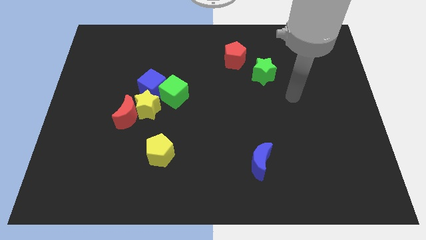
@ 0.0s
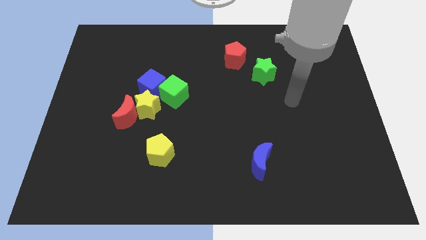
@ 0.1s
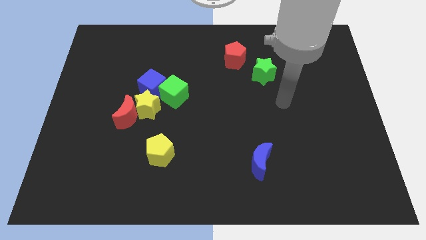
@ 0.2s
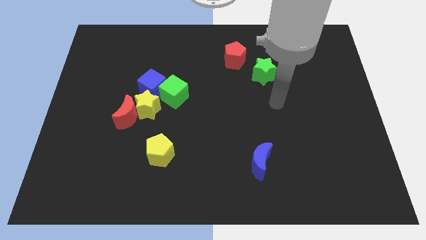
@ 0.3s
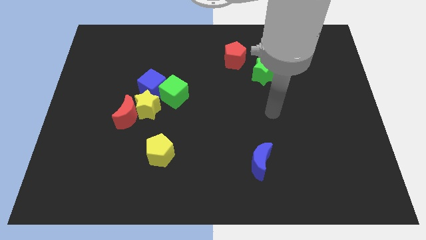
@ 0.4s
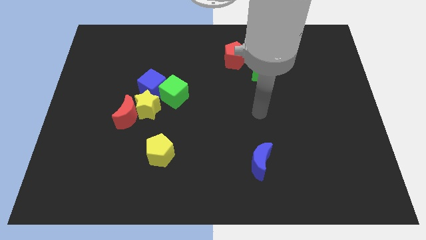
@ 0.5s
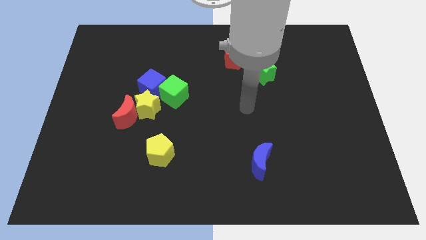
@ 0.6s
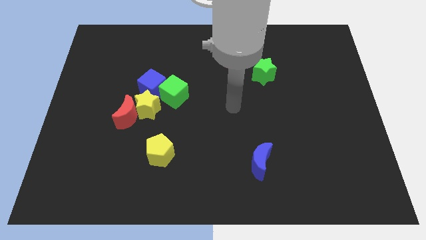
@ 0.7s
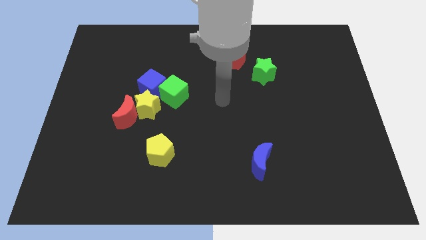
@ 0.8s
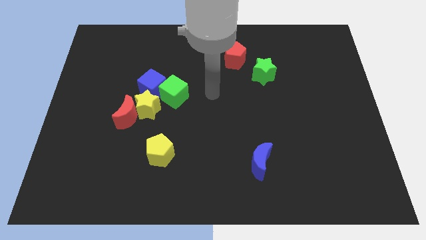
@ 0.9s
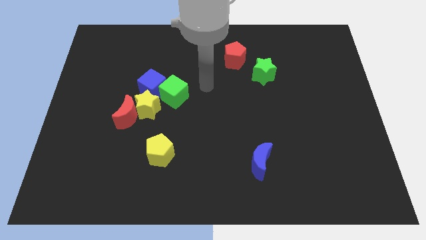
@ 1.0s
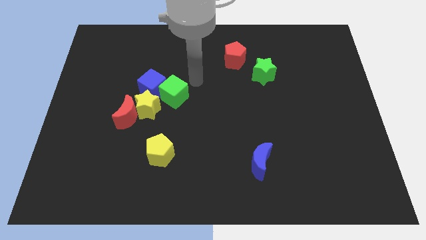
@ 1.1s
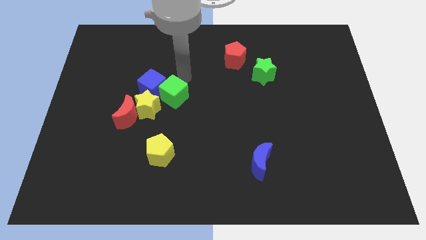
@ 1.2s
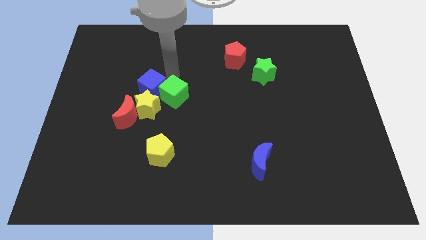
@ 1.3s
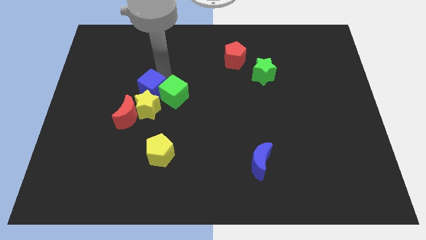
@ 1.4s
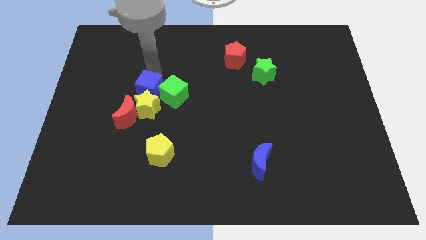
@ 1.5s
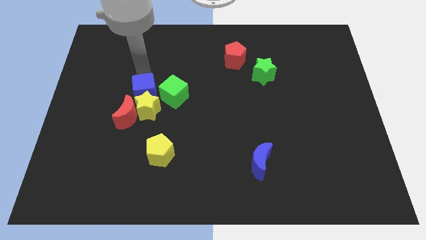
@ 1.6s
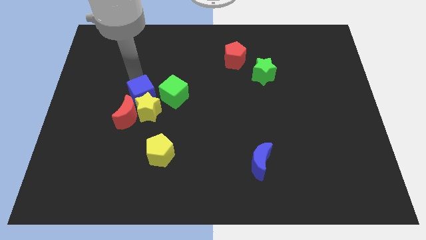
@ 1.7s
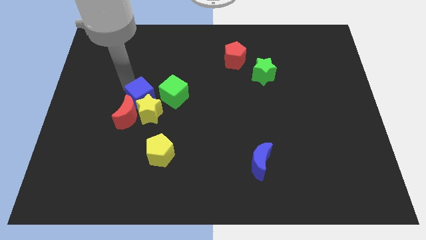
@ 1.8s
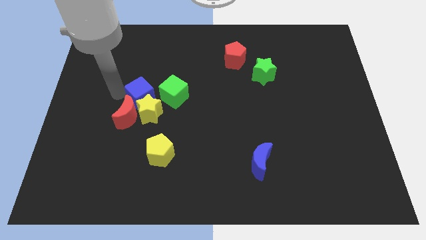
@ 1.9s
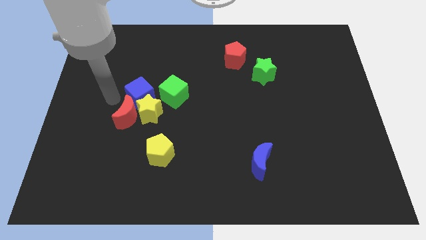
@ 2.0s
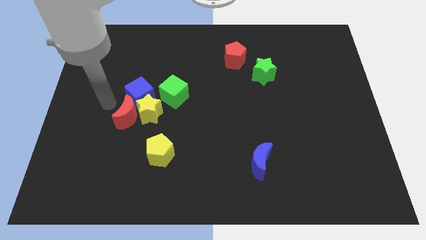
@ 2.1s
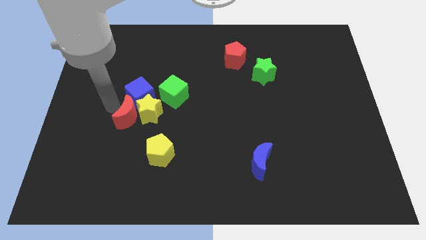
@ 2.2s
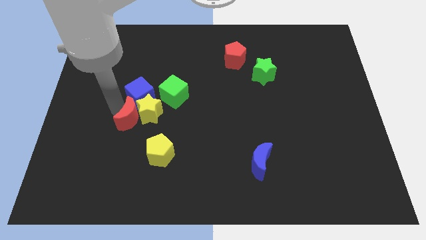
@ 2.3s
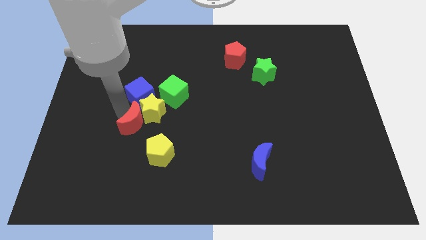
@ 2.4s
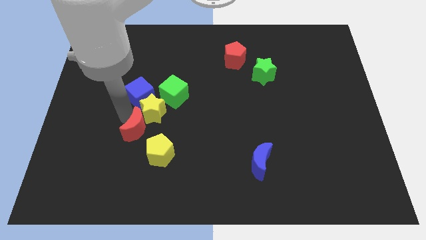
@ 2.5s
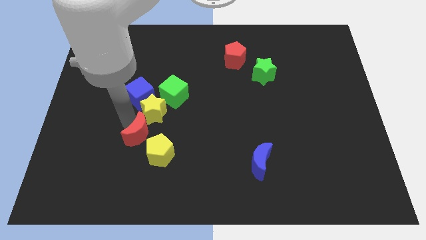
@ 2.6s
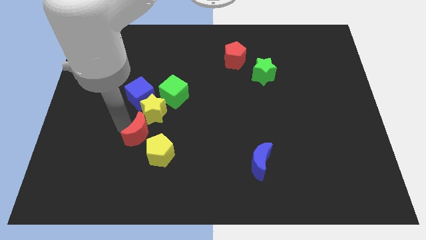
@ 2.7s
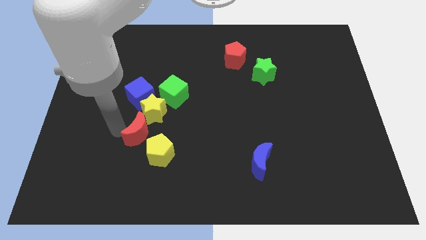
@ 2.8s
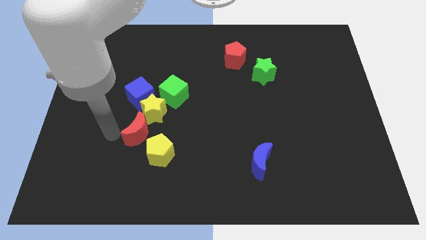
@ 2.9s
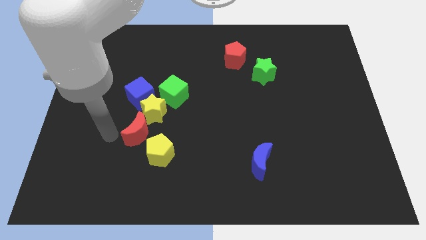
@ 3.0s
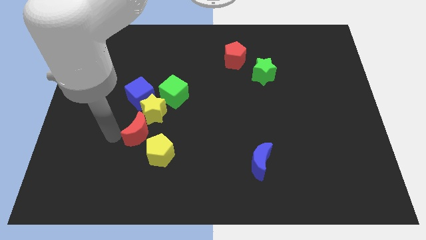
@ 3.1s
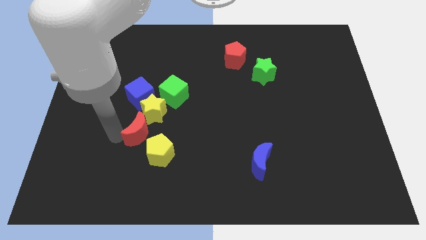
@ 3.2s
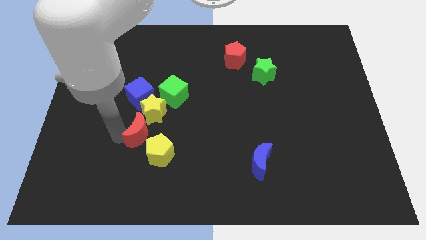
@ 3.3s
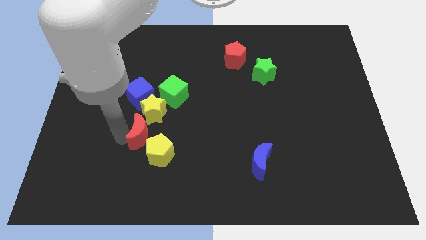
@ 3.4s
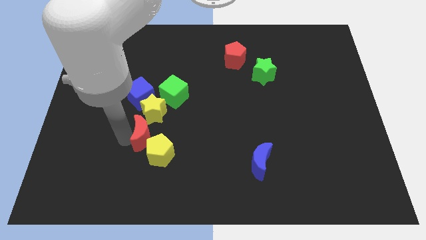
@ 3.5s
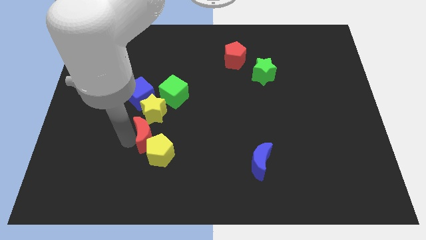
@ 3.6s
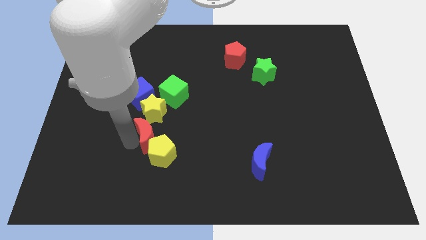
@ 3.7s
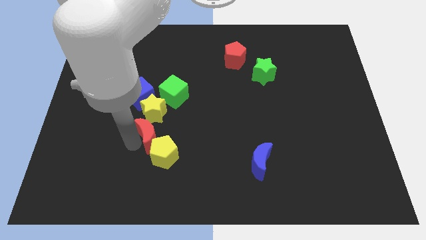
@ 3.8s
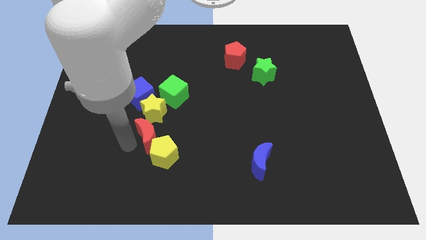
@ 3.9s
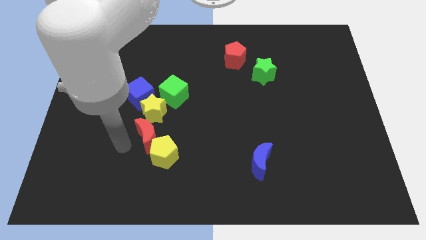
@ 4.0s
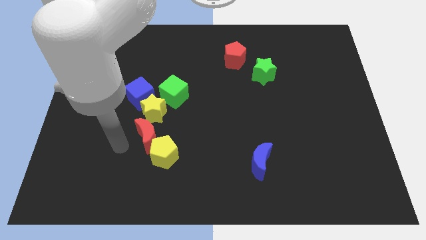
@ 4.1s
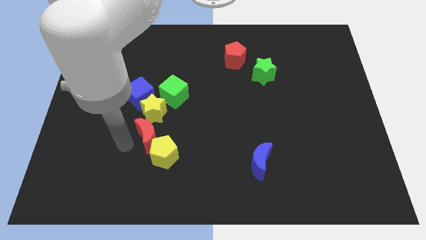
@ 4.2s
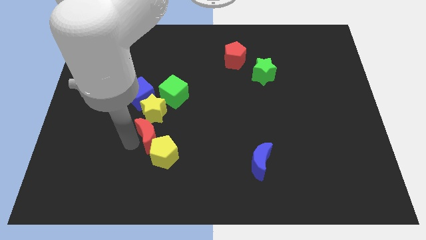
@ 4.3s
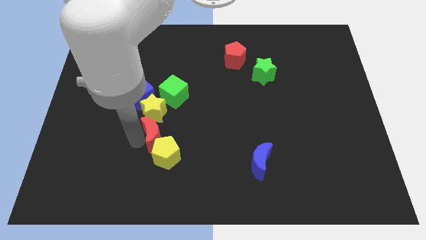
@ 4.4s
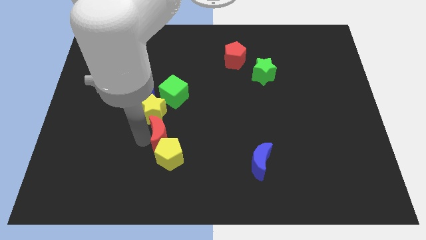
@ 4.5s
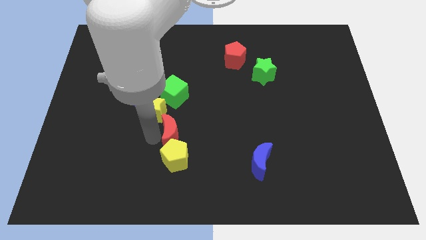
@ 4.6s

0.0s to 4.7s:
move the red moon to the right a bit

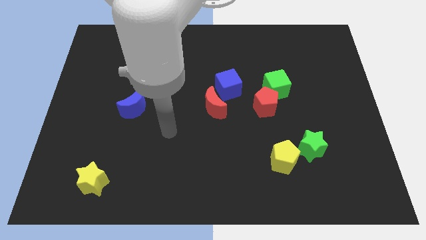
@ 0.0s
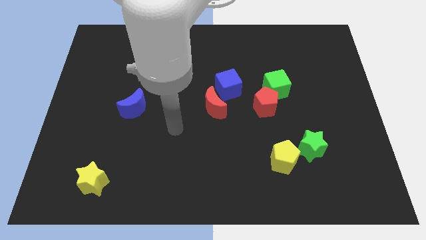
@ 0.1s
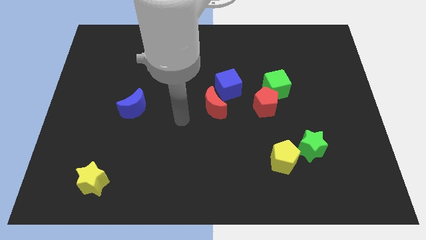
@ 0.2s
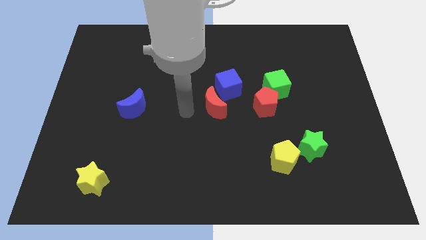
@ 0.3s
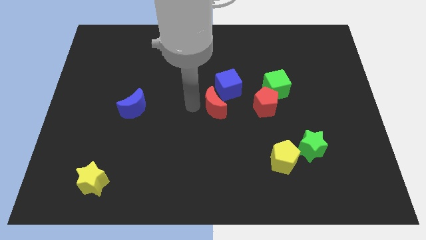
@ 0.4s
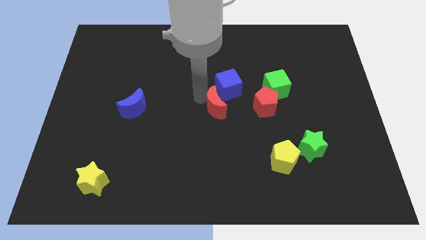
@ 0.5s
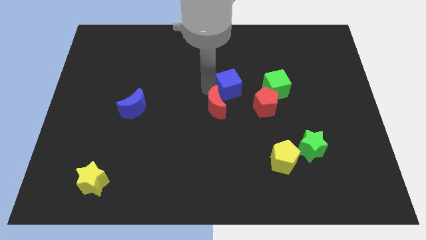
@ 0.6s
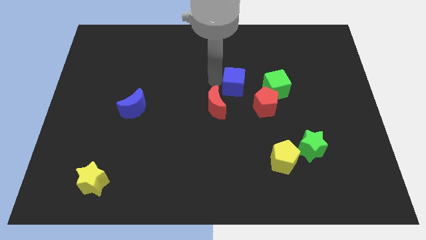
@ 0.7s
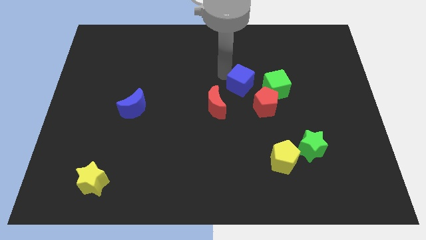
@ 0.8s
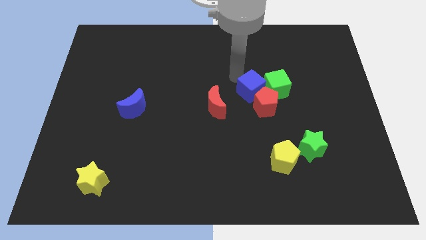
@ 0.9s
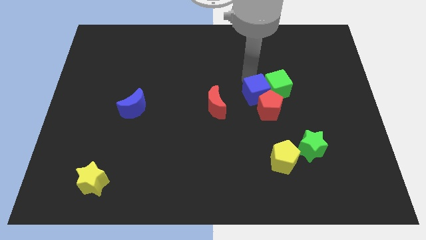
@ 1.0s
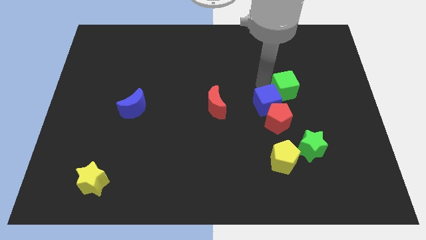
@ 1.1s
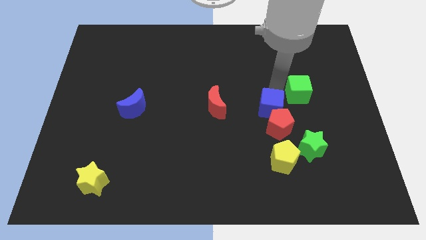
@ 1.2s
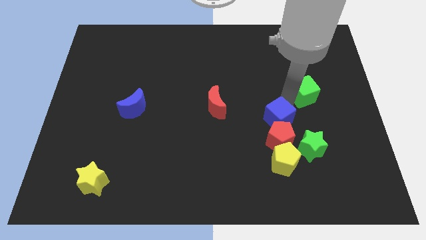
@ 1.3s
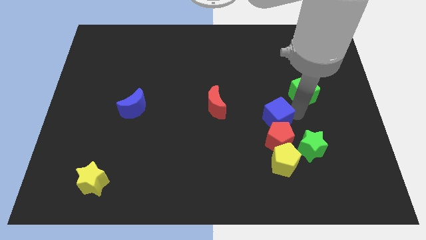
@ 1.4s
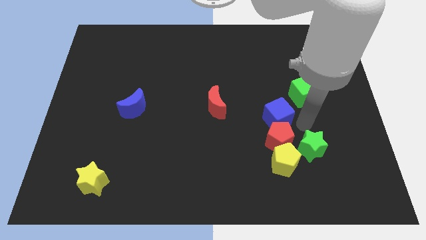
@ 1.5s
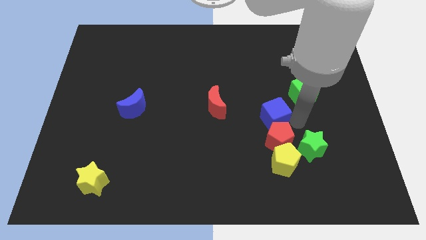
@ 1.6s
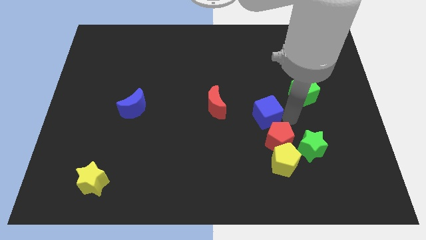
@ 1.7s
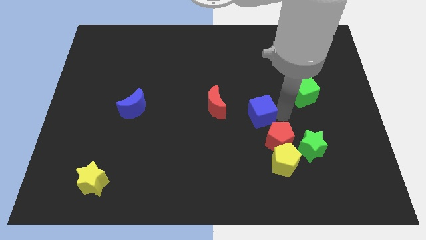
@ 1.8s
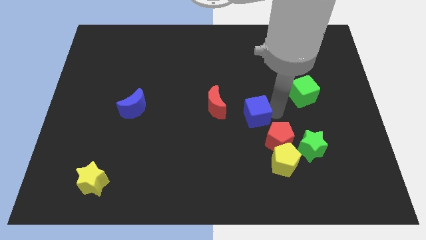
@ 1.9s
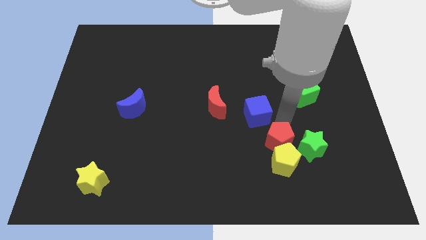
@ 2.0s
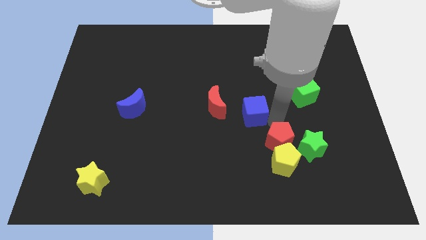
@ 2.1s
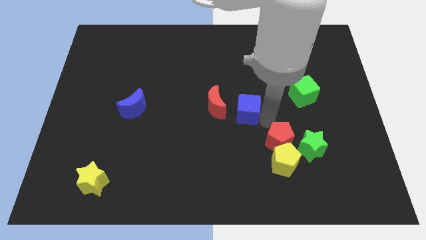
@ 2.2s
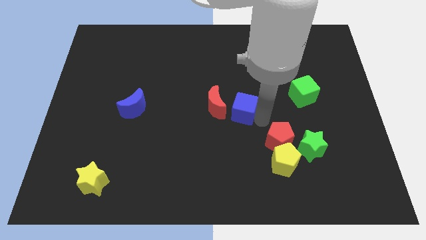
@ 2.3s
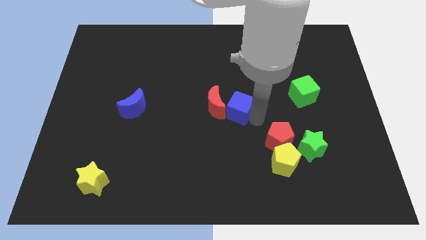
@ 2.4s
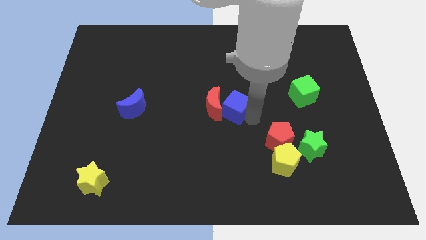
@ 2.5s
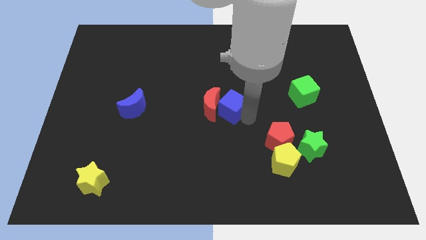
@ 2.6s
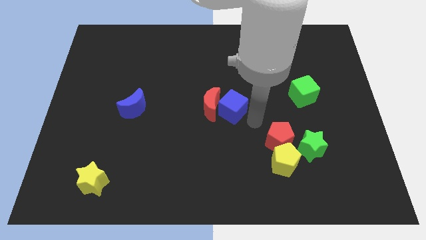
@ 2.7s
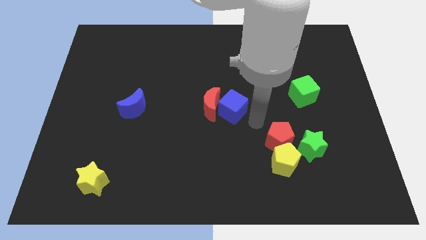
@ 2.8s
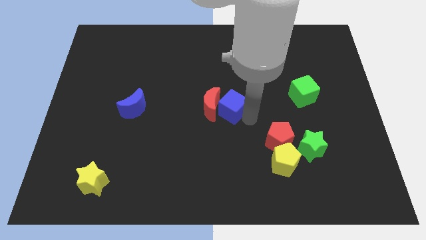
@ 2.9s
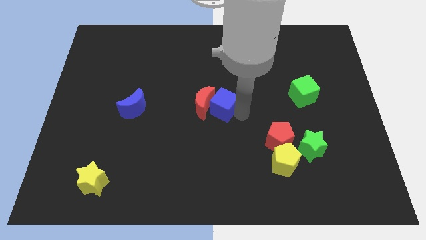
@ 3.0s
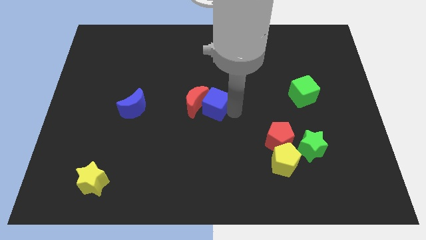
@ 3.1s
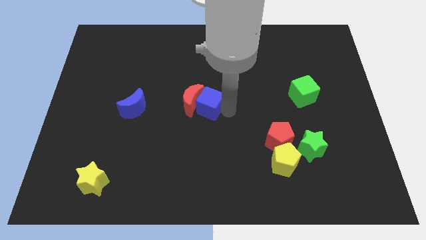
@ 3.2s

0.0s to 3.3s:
slightly slide the blue cube diagonally down and left

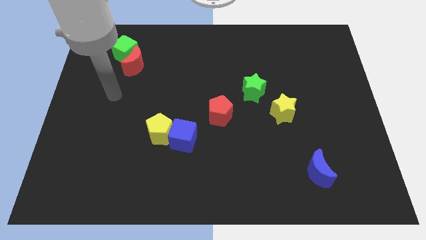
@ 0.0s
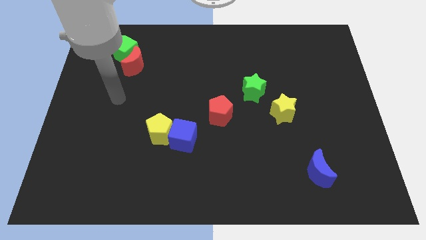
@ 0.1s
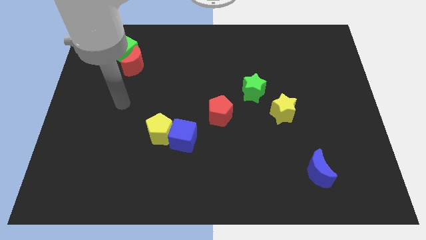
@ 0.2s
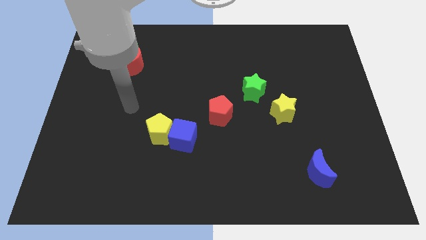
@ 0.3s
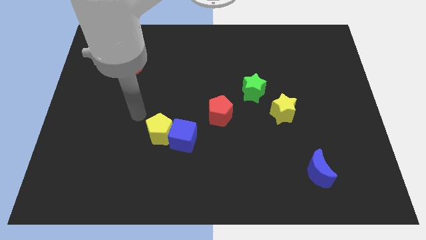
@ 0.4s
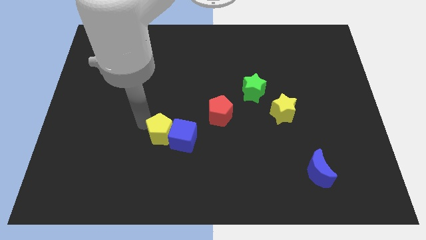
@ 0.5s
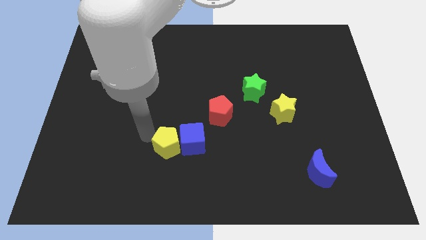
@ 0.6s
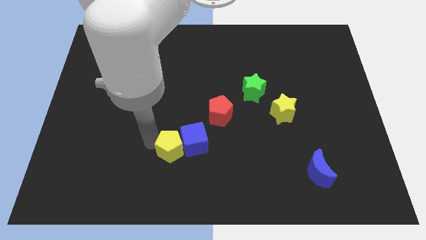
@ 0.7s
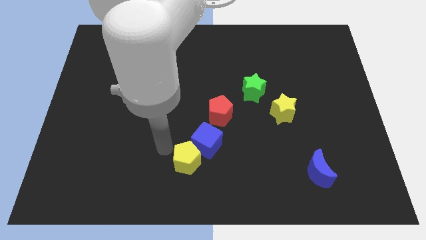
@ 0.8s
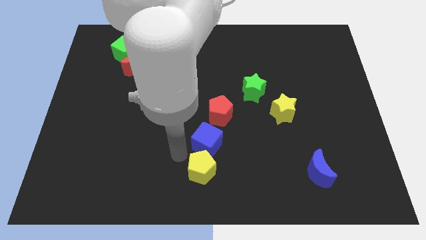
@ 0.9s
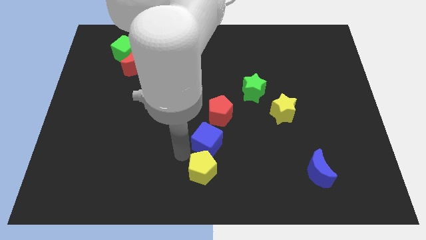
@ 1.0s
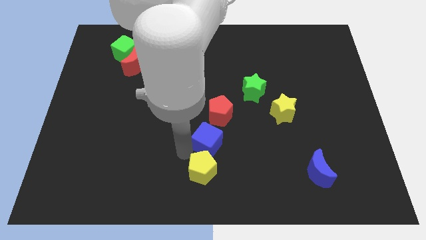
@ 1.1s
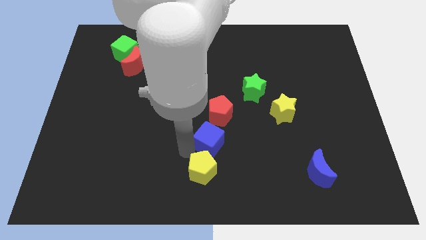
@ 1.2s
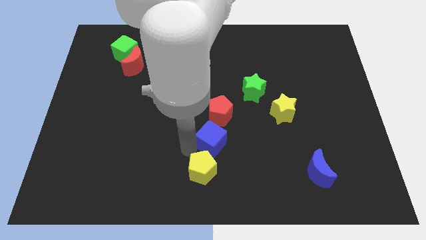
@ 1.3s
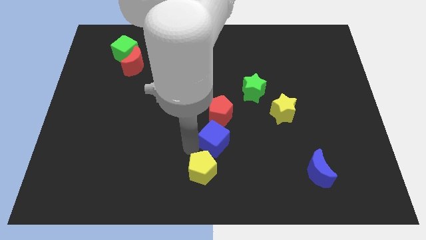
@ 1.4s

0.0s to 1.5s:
slide the blue cube right a little bit
